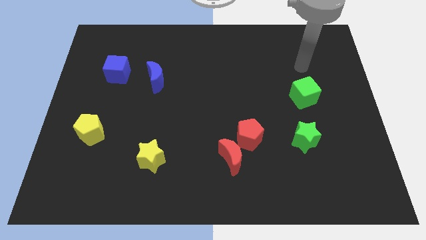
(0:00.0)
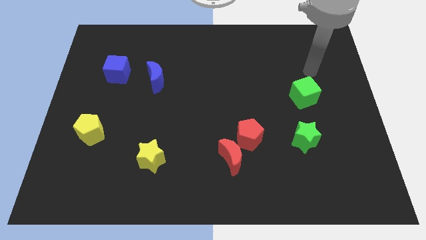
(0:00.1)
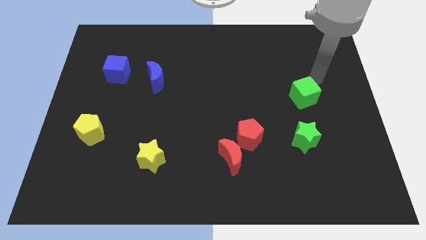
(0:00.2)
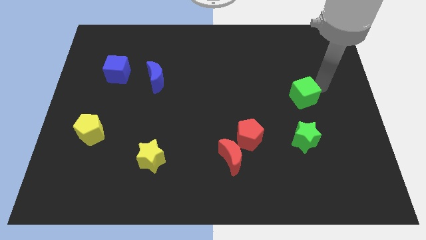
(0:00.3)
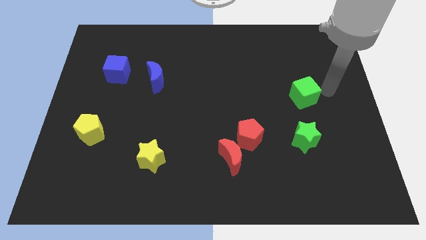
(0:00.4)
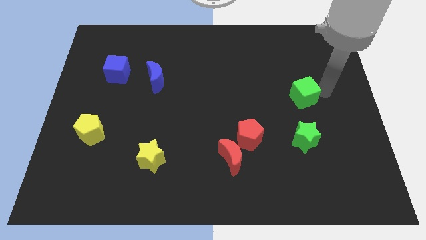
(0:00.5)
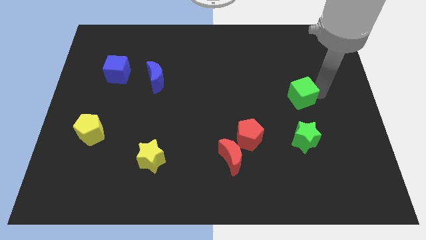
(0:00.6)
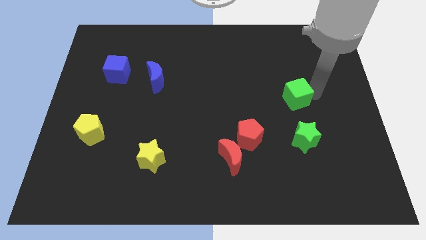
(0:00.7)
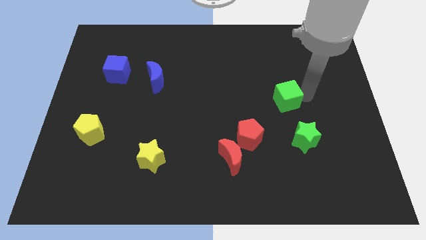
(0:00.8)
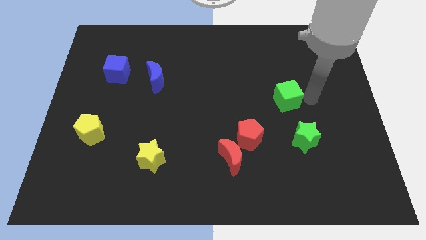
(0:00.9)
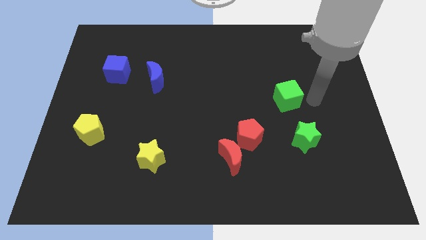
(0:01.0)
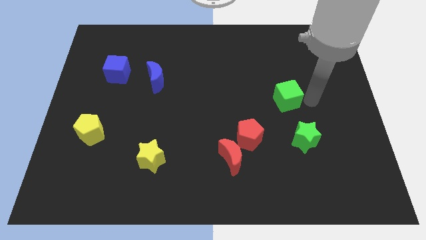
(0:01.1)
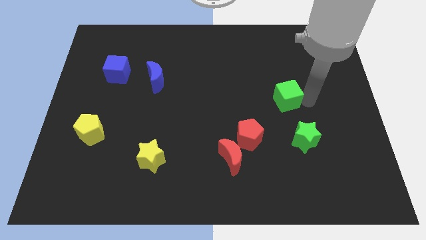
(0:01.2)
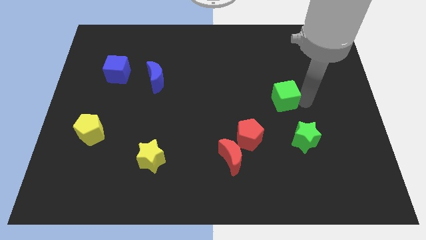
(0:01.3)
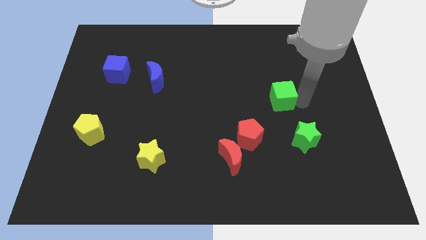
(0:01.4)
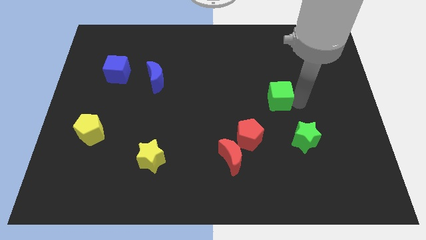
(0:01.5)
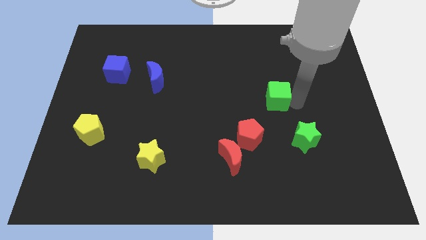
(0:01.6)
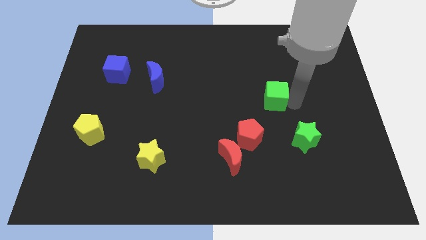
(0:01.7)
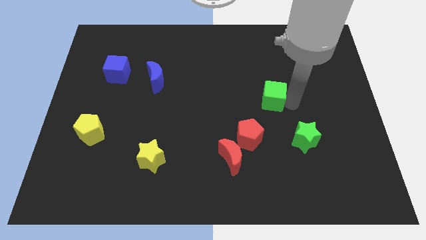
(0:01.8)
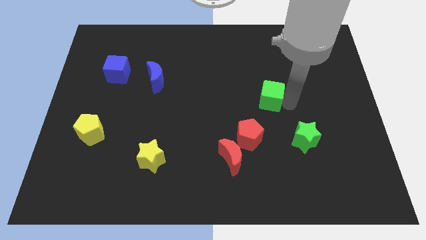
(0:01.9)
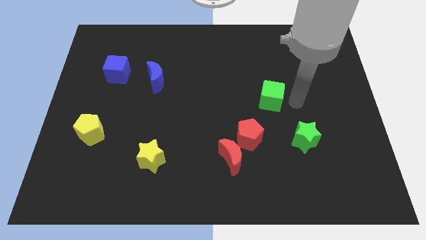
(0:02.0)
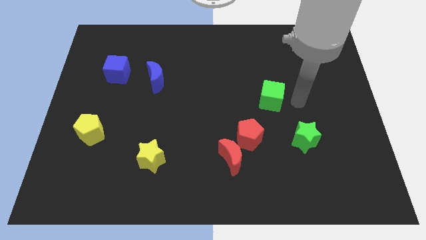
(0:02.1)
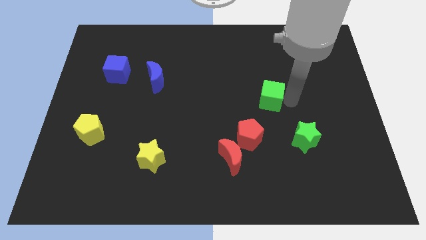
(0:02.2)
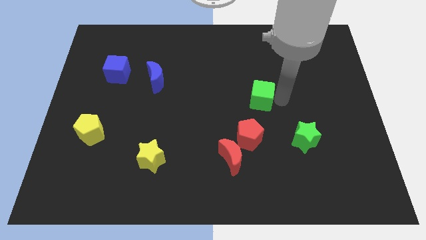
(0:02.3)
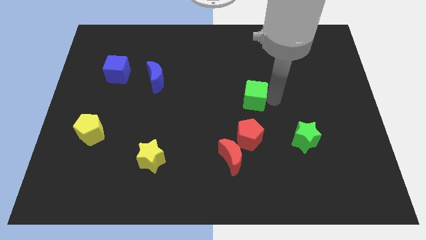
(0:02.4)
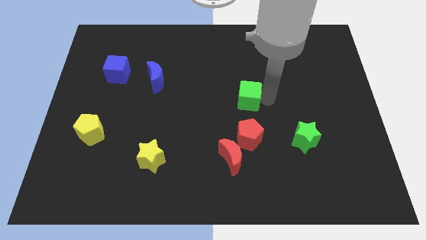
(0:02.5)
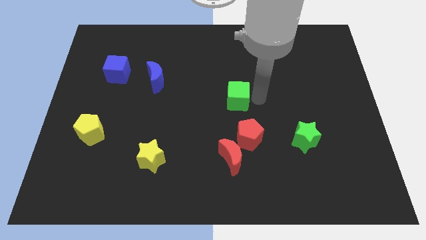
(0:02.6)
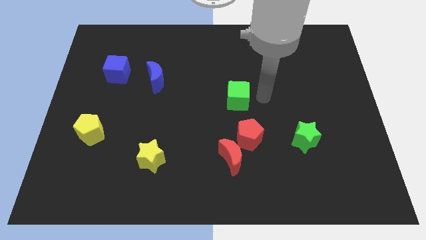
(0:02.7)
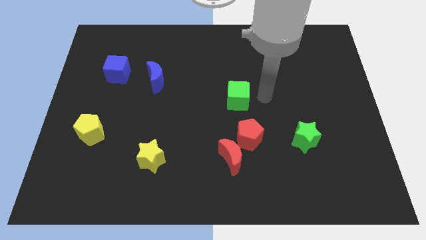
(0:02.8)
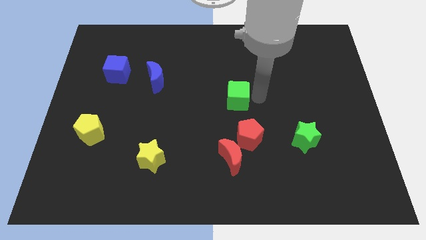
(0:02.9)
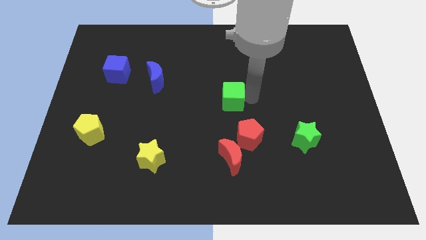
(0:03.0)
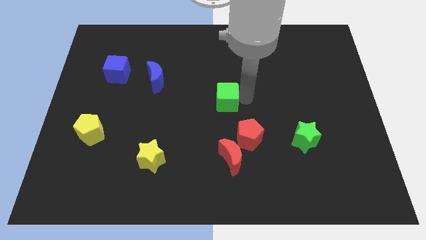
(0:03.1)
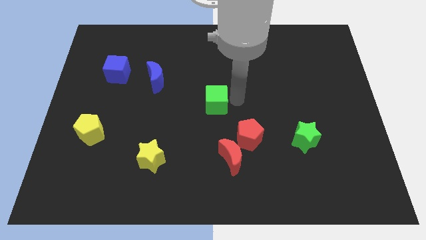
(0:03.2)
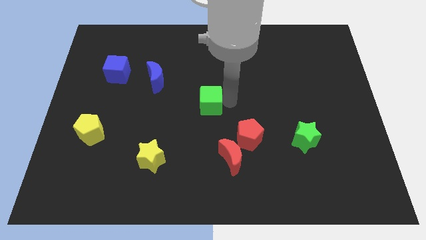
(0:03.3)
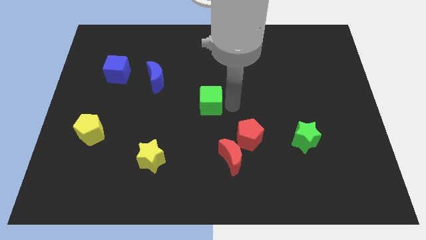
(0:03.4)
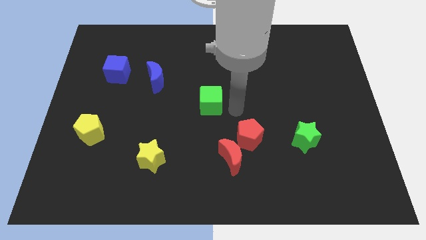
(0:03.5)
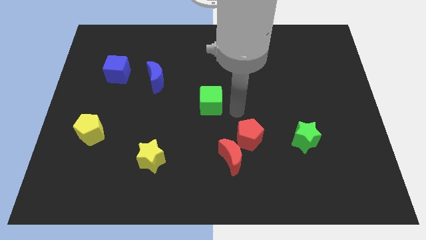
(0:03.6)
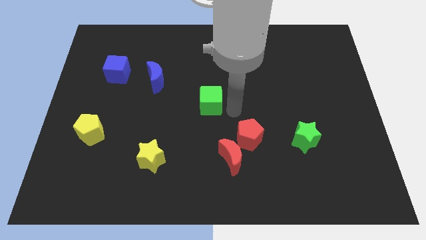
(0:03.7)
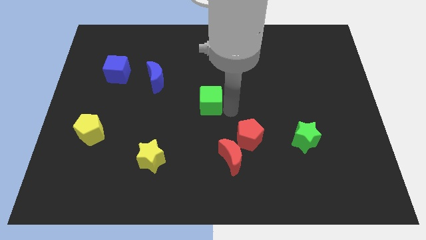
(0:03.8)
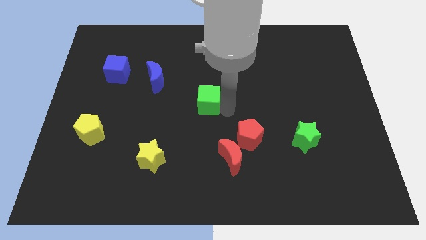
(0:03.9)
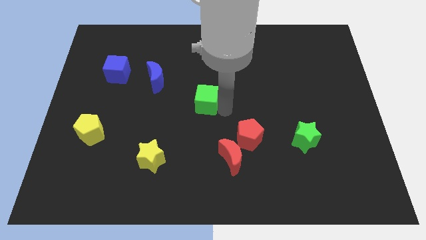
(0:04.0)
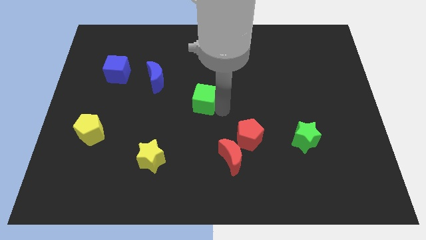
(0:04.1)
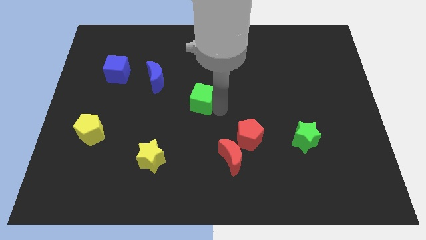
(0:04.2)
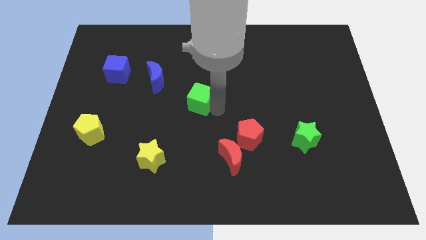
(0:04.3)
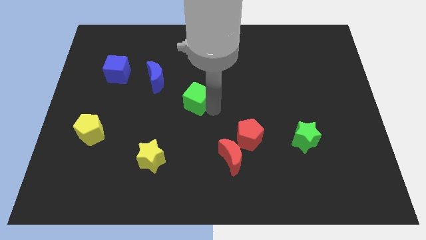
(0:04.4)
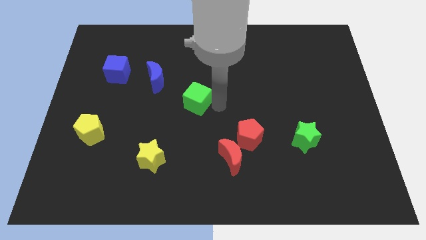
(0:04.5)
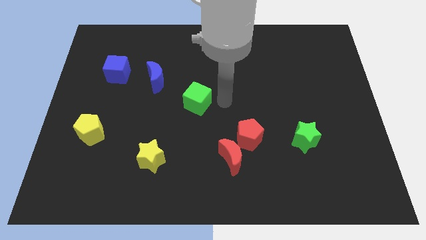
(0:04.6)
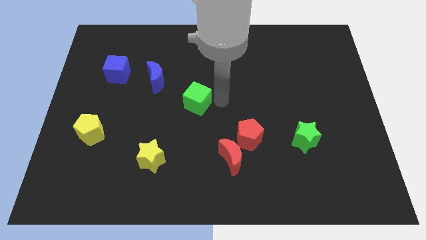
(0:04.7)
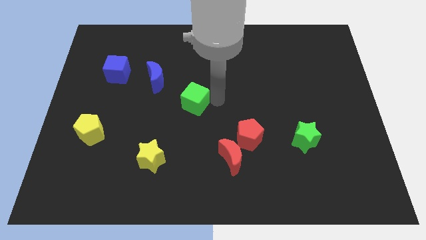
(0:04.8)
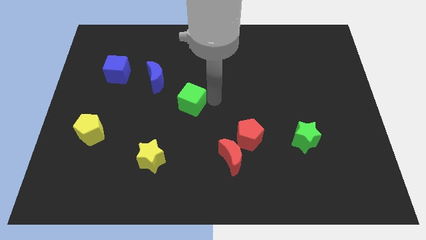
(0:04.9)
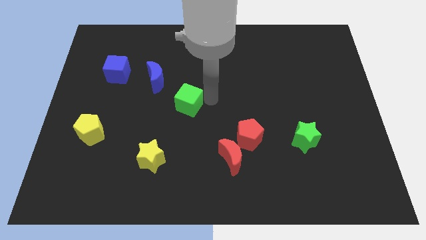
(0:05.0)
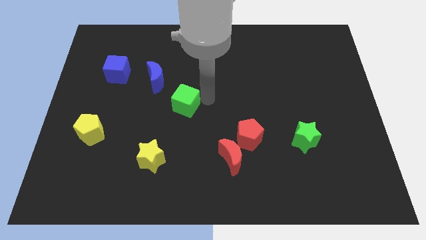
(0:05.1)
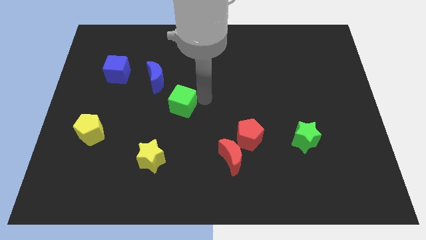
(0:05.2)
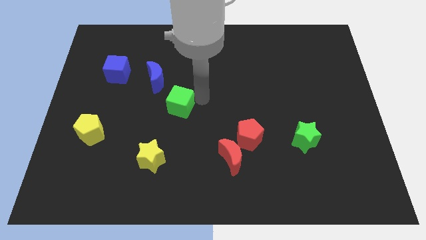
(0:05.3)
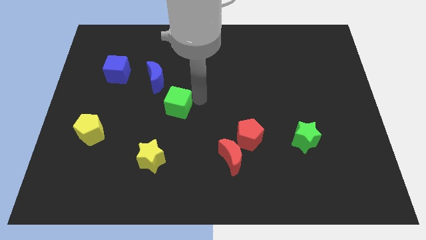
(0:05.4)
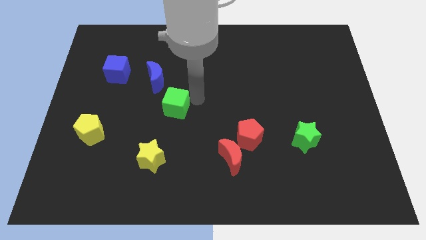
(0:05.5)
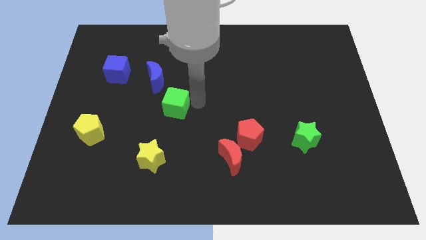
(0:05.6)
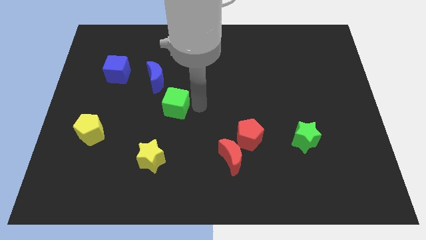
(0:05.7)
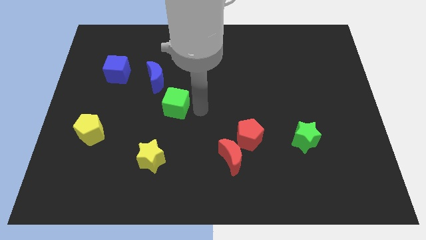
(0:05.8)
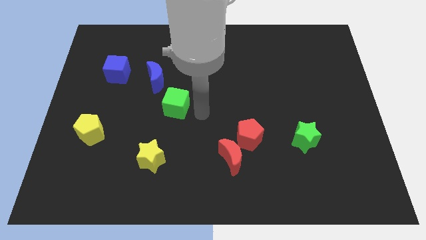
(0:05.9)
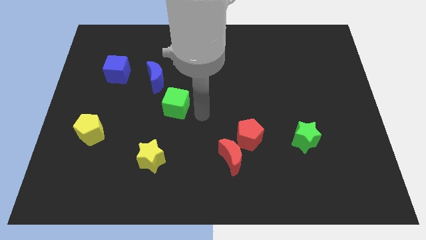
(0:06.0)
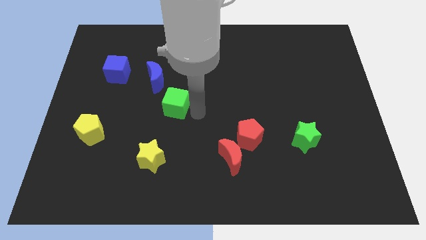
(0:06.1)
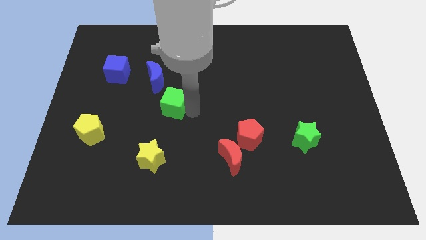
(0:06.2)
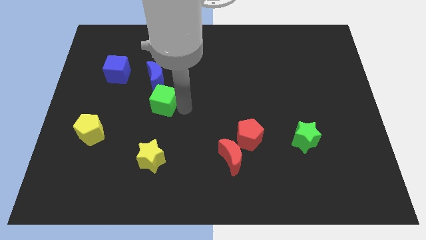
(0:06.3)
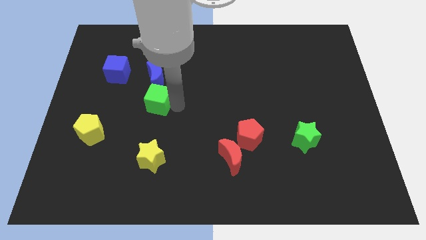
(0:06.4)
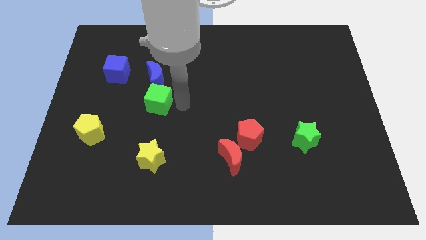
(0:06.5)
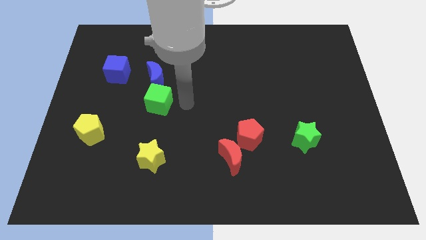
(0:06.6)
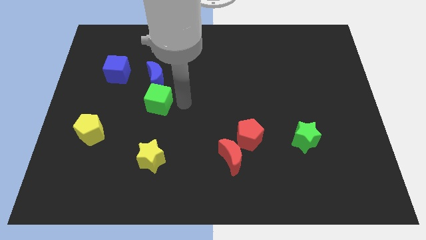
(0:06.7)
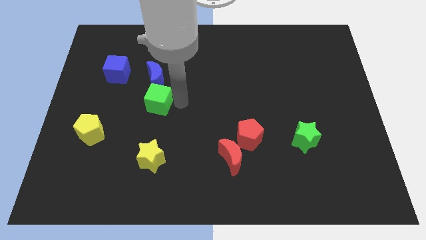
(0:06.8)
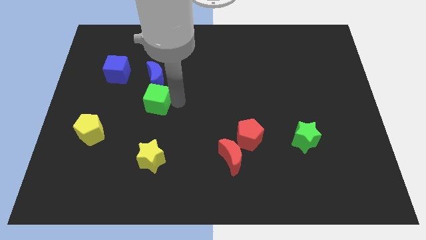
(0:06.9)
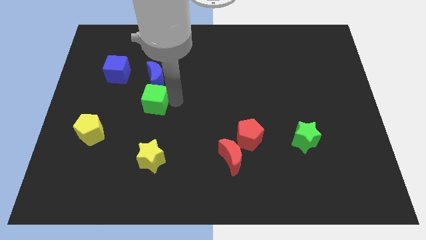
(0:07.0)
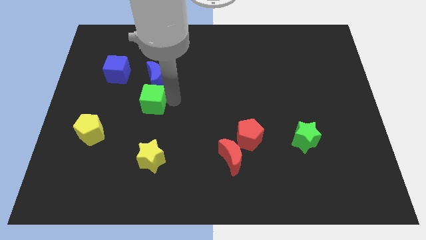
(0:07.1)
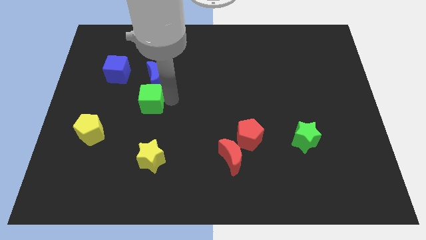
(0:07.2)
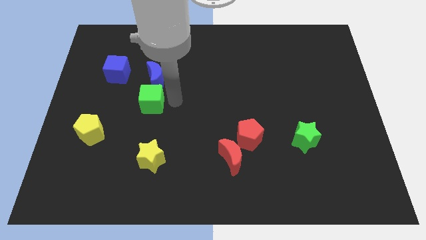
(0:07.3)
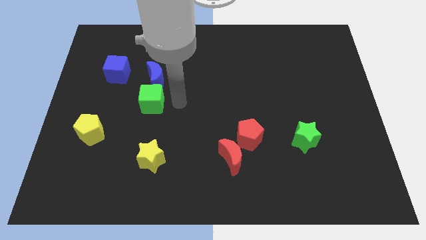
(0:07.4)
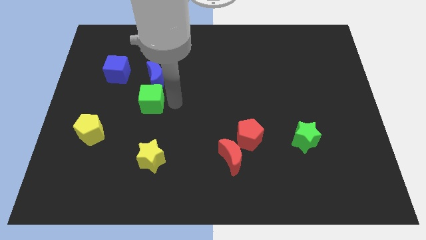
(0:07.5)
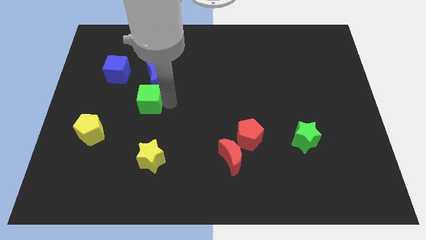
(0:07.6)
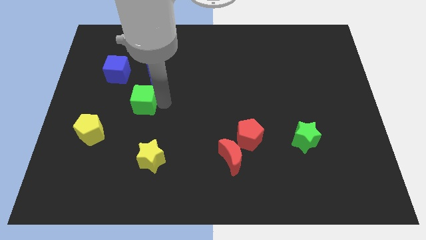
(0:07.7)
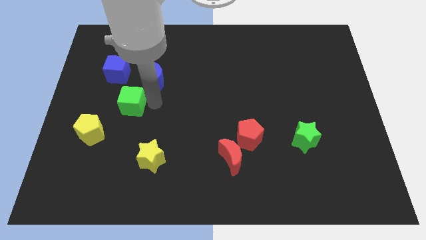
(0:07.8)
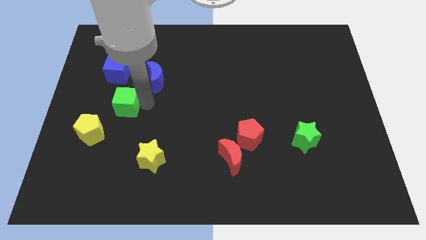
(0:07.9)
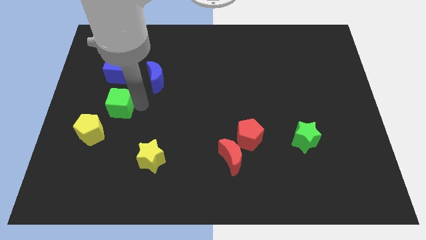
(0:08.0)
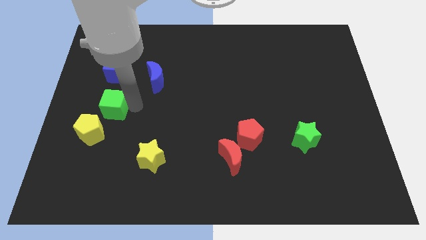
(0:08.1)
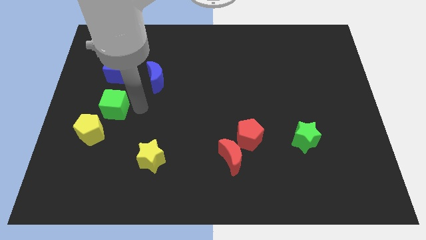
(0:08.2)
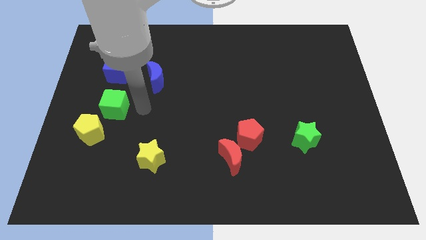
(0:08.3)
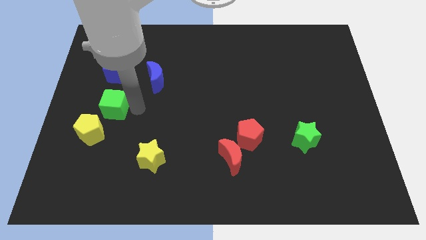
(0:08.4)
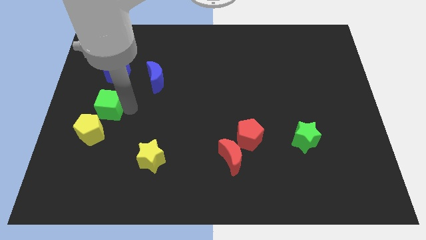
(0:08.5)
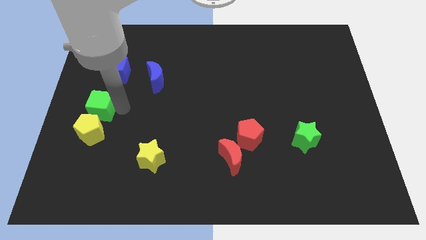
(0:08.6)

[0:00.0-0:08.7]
slide the green cube to the left side of the board
